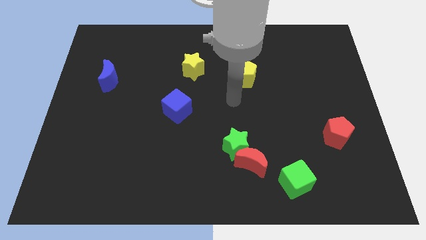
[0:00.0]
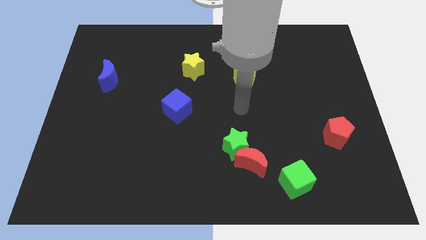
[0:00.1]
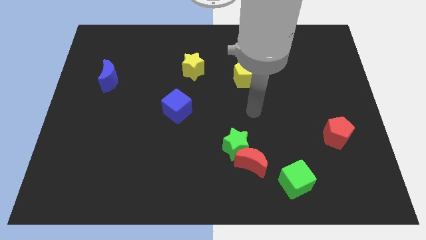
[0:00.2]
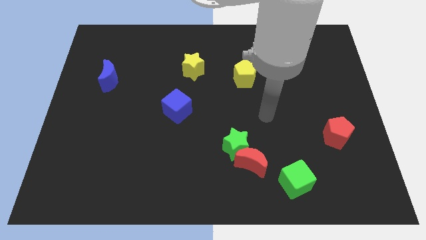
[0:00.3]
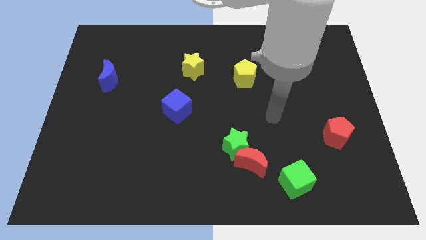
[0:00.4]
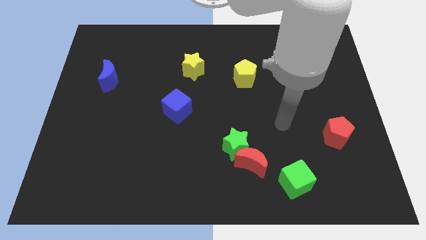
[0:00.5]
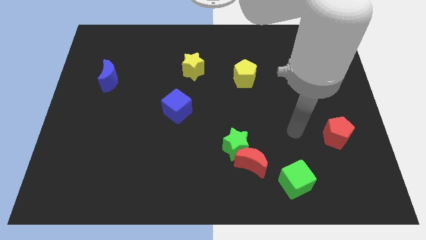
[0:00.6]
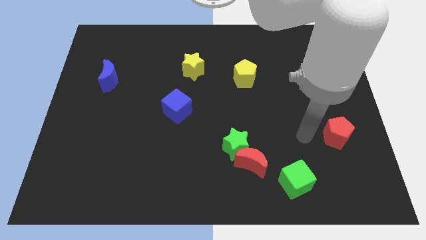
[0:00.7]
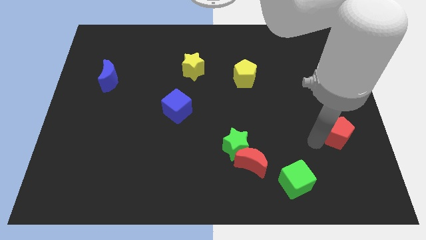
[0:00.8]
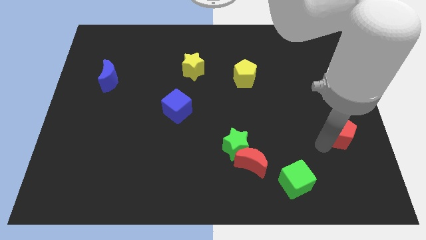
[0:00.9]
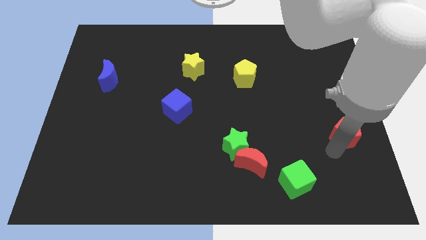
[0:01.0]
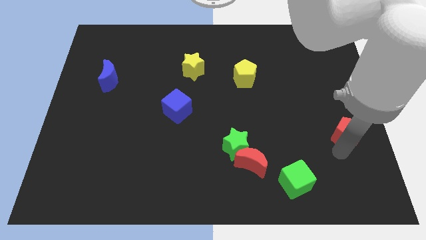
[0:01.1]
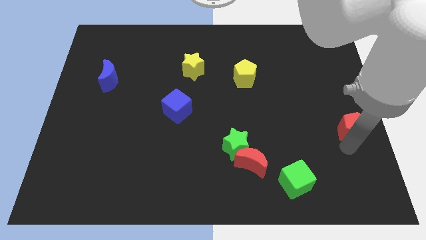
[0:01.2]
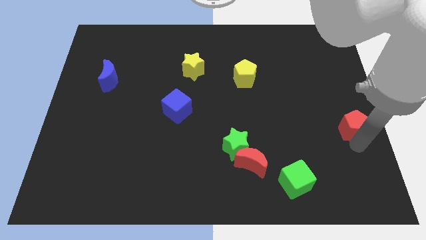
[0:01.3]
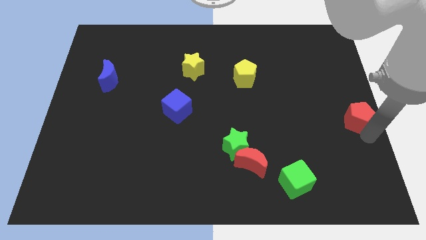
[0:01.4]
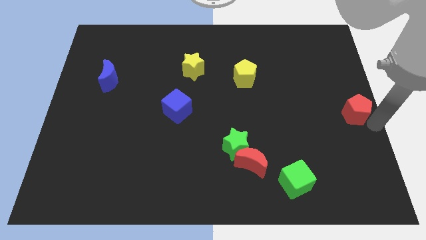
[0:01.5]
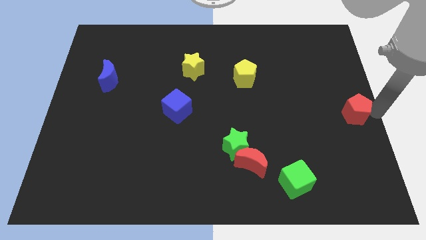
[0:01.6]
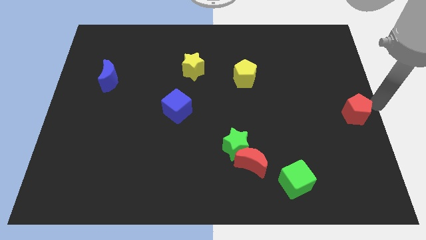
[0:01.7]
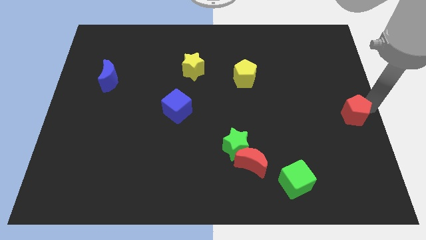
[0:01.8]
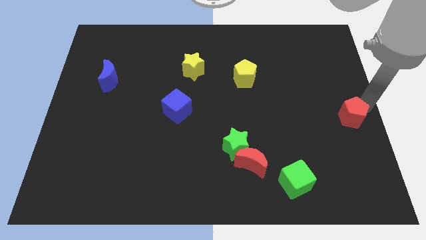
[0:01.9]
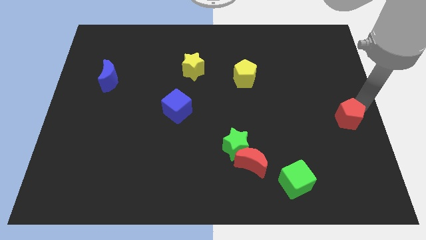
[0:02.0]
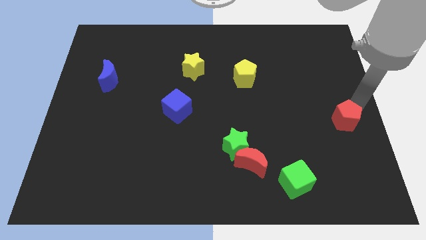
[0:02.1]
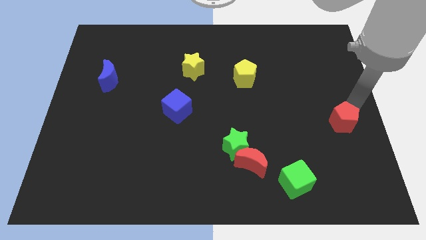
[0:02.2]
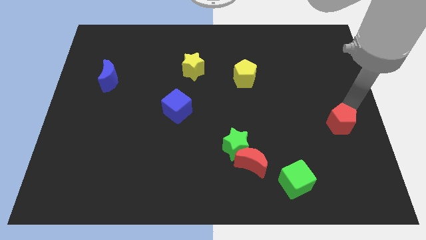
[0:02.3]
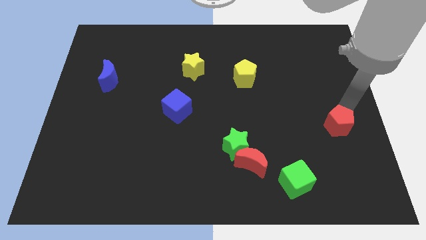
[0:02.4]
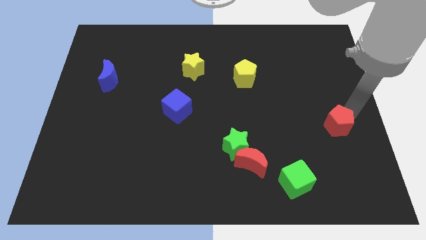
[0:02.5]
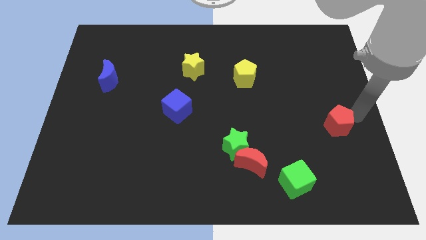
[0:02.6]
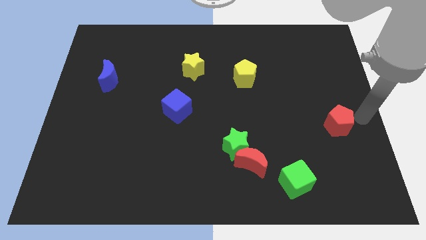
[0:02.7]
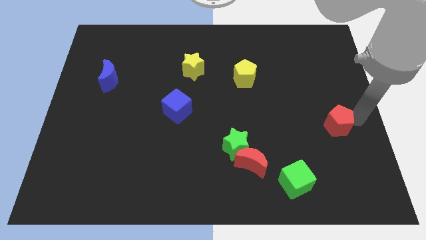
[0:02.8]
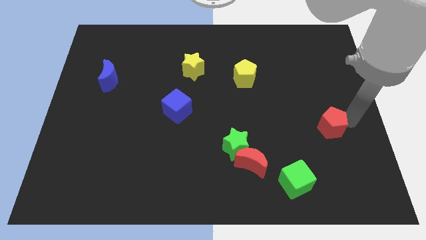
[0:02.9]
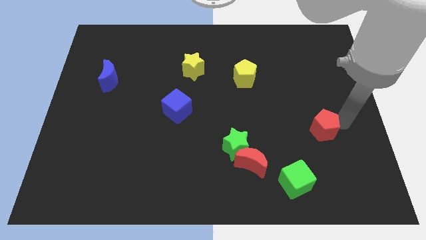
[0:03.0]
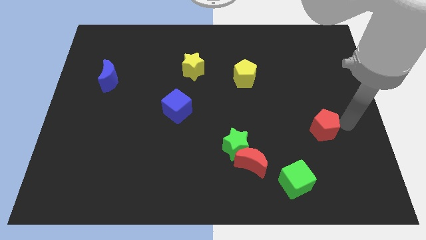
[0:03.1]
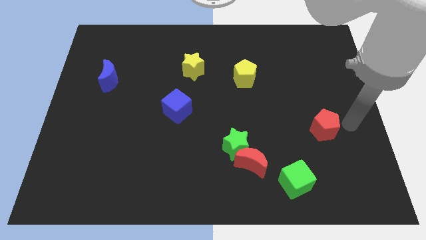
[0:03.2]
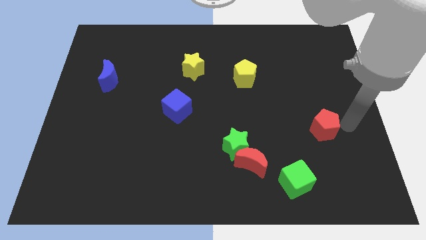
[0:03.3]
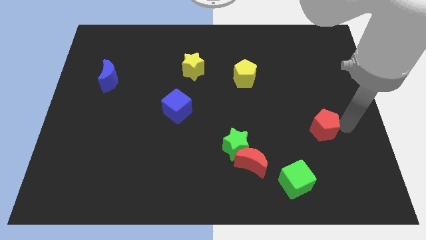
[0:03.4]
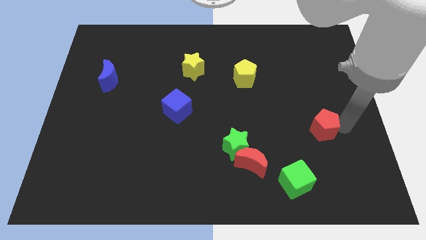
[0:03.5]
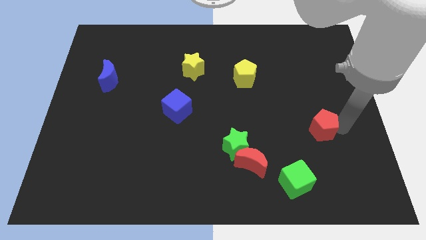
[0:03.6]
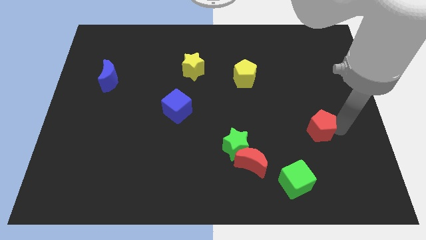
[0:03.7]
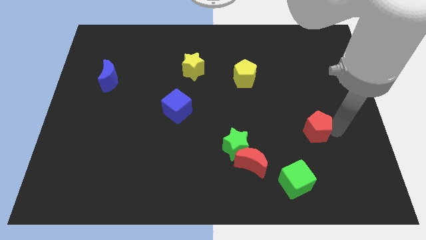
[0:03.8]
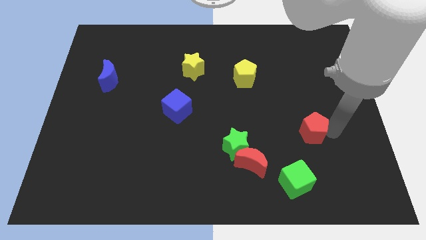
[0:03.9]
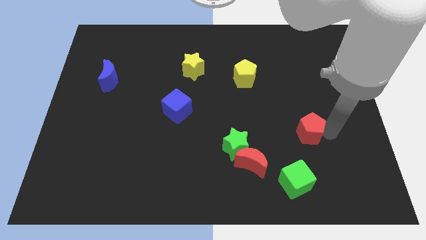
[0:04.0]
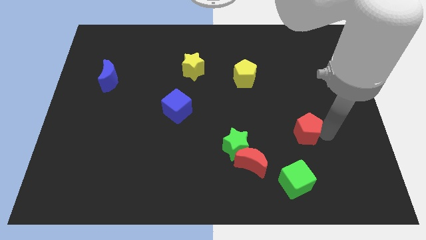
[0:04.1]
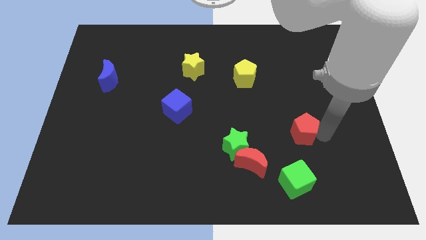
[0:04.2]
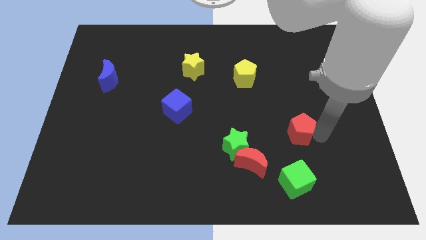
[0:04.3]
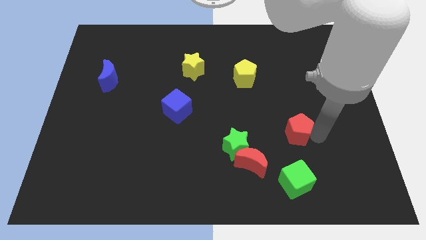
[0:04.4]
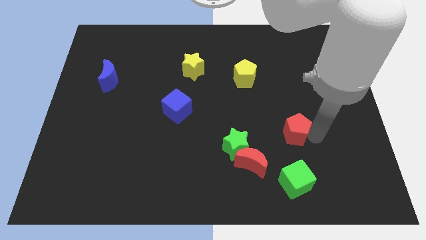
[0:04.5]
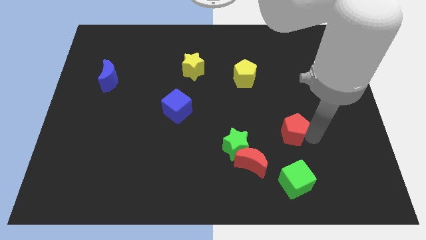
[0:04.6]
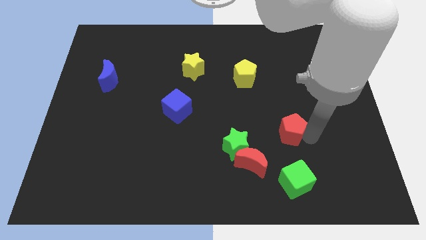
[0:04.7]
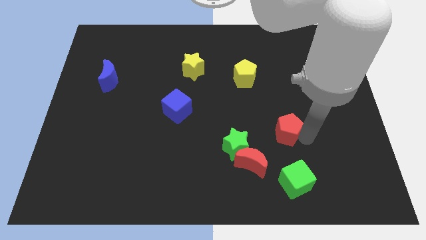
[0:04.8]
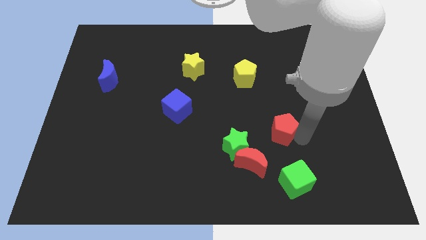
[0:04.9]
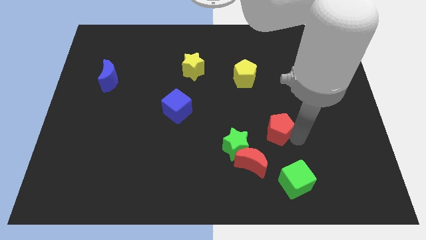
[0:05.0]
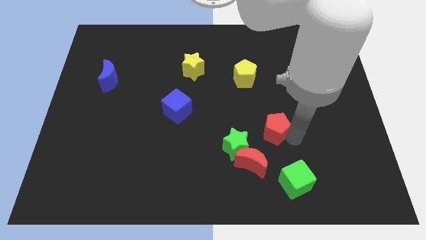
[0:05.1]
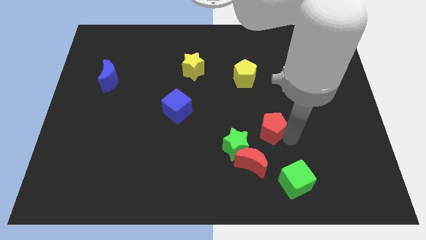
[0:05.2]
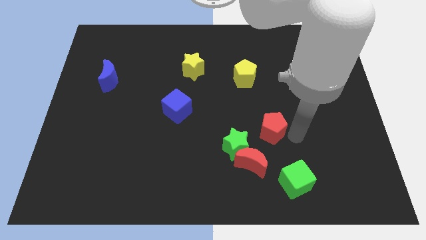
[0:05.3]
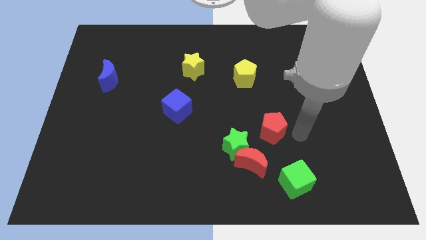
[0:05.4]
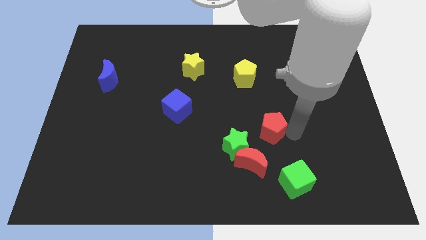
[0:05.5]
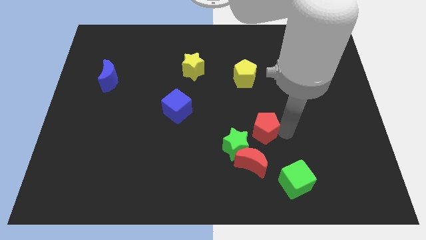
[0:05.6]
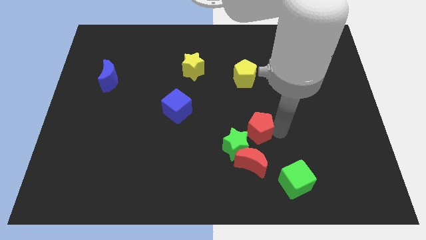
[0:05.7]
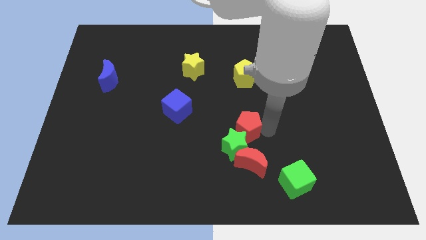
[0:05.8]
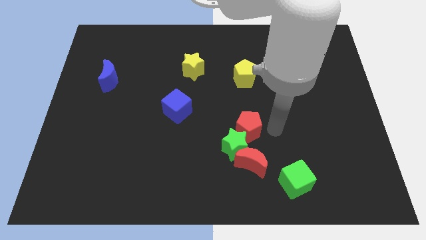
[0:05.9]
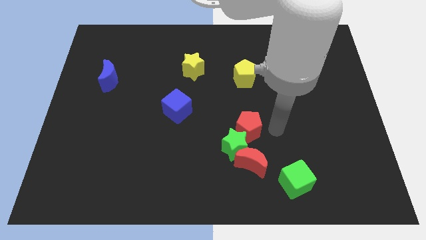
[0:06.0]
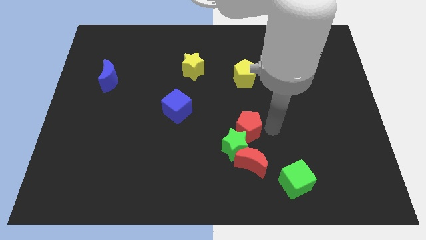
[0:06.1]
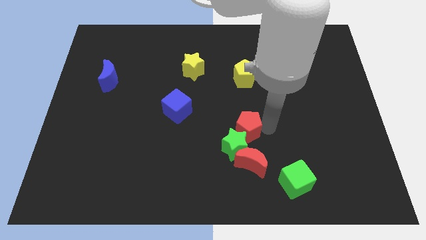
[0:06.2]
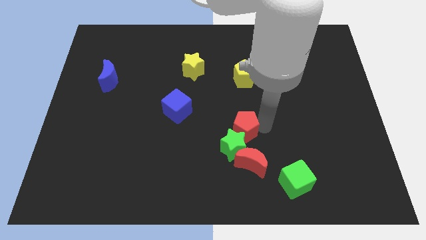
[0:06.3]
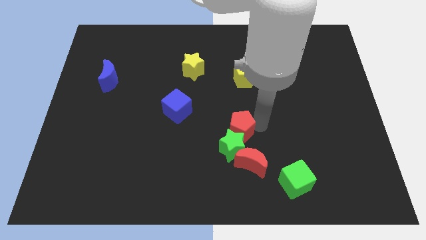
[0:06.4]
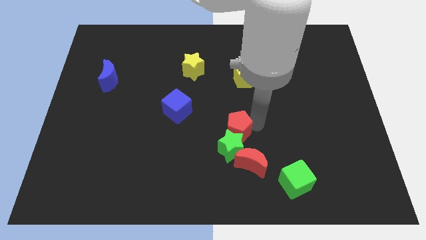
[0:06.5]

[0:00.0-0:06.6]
slide the red pentagon diagonally up and to the left of the green star

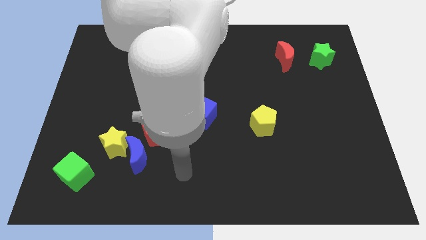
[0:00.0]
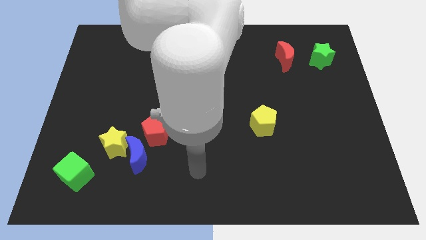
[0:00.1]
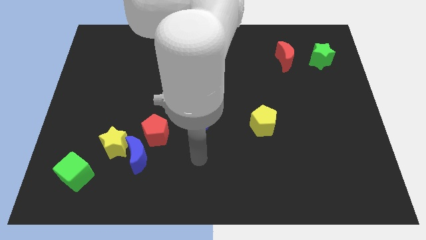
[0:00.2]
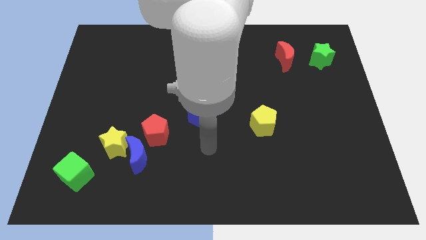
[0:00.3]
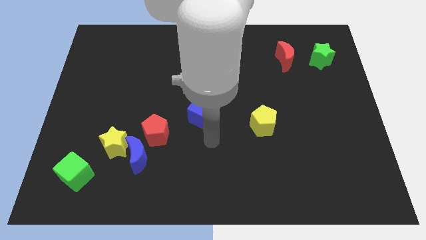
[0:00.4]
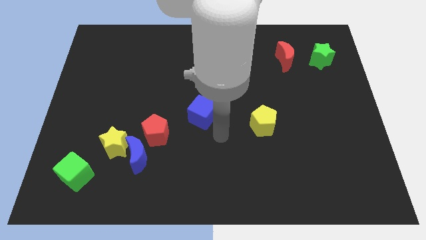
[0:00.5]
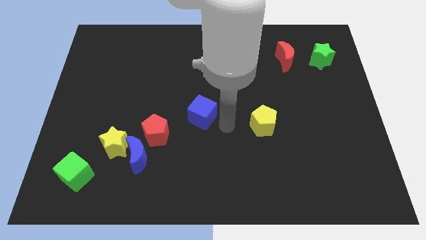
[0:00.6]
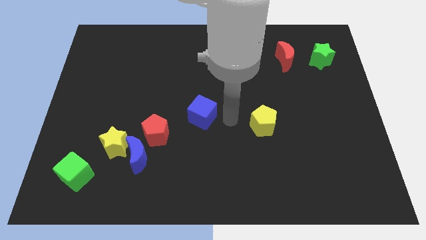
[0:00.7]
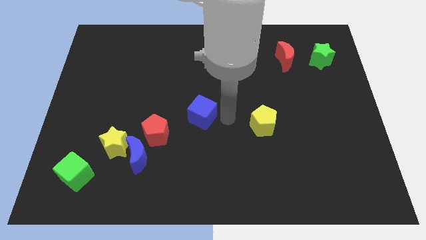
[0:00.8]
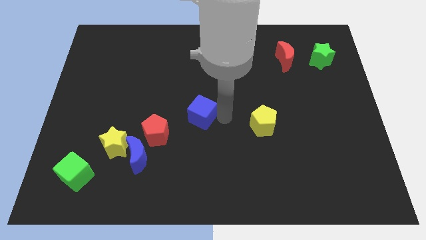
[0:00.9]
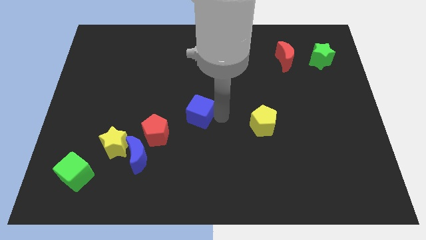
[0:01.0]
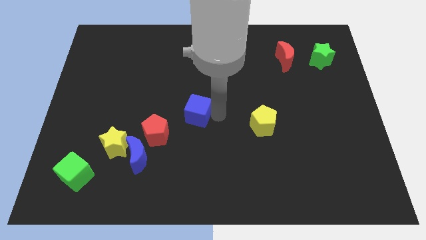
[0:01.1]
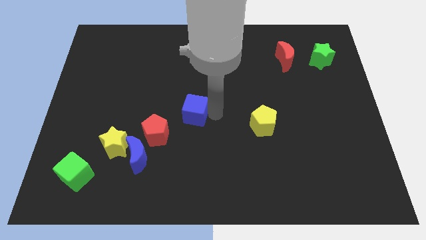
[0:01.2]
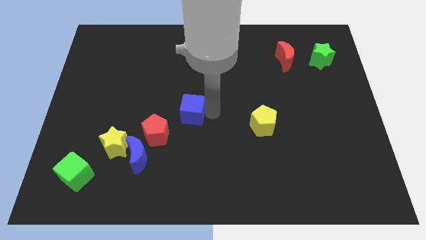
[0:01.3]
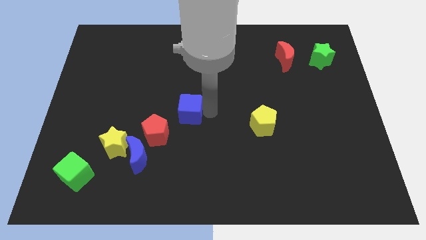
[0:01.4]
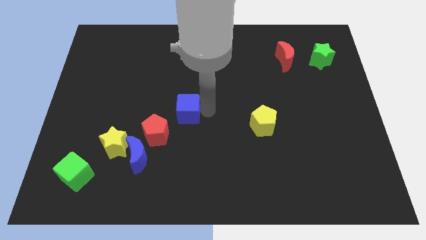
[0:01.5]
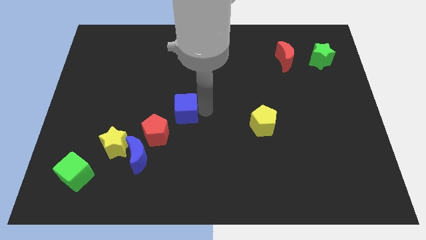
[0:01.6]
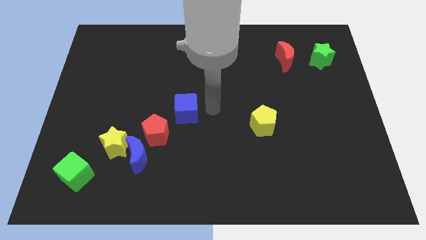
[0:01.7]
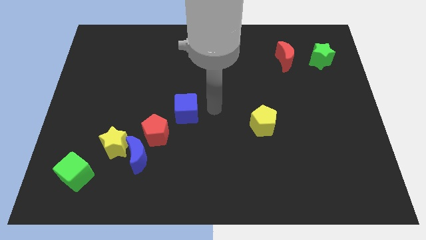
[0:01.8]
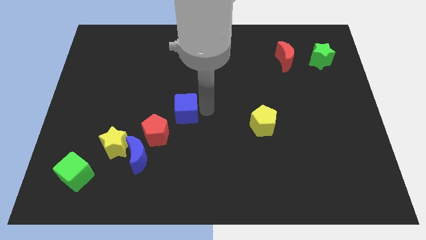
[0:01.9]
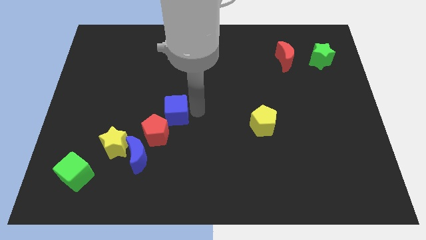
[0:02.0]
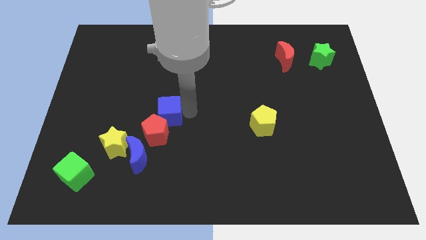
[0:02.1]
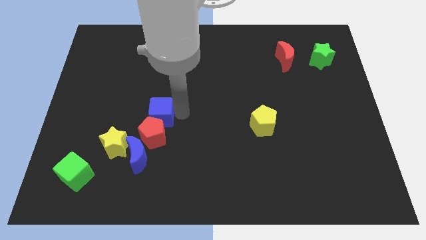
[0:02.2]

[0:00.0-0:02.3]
slide the blue cube to the top side of the blue moon
